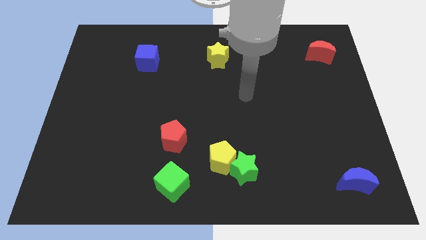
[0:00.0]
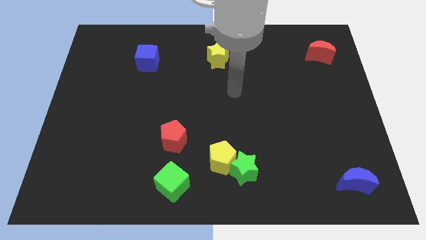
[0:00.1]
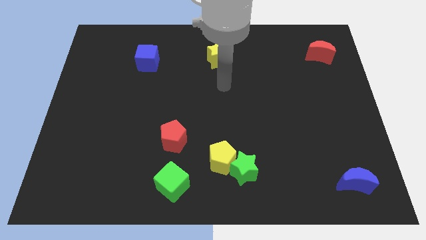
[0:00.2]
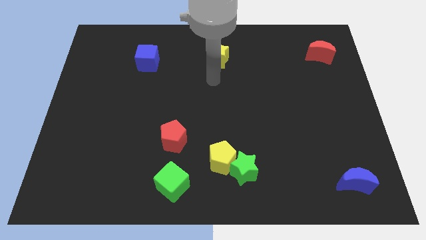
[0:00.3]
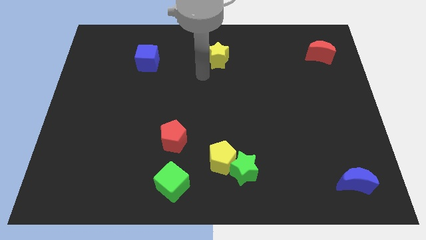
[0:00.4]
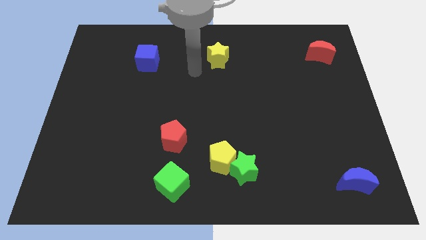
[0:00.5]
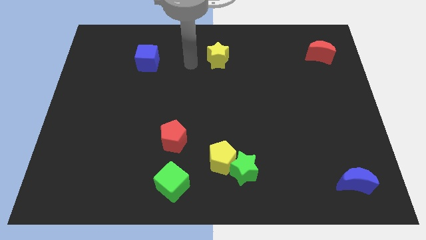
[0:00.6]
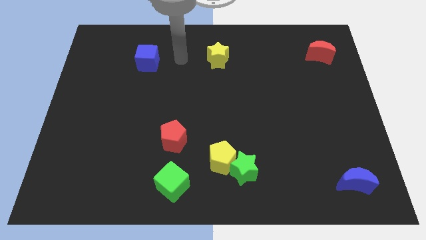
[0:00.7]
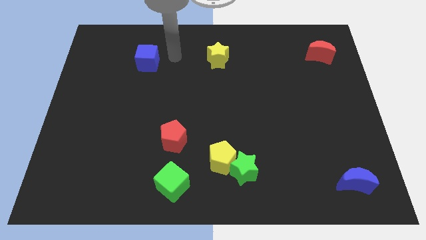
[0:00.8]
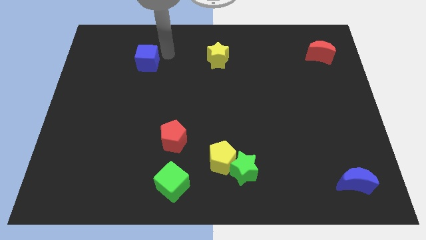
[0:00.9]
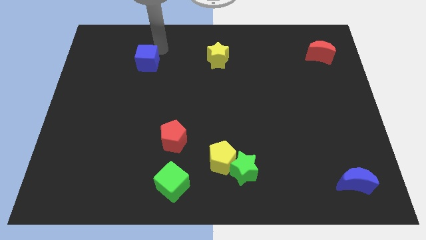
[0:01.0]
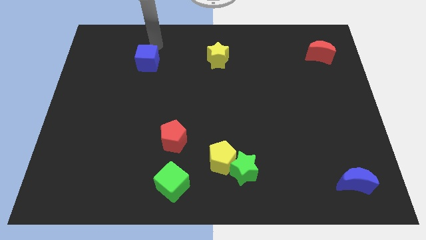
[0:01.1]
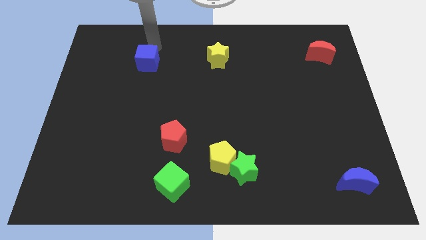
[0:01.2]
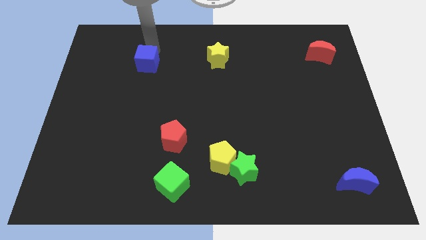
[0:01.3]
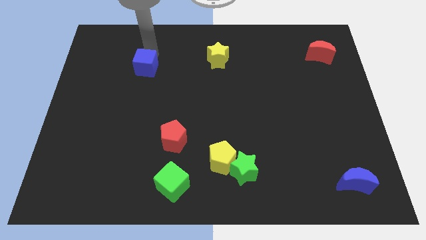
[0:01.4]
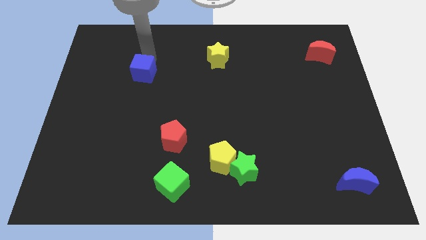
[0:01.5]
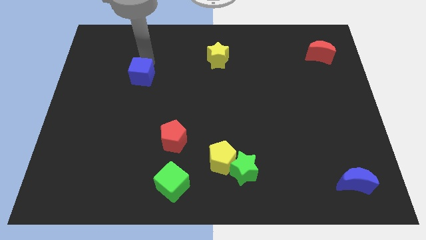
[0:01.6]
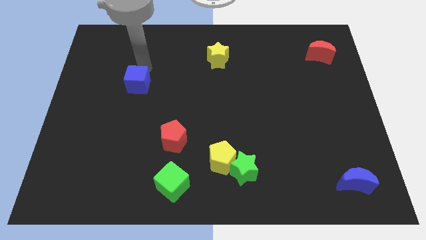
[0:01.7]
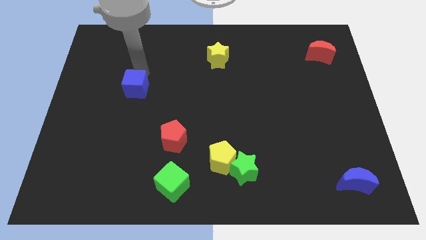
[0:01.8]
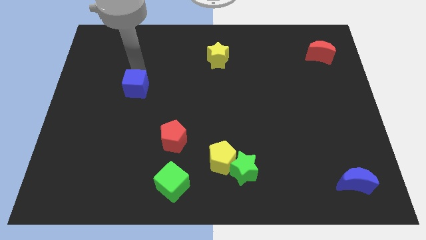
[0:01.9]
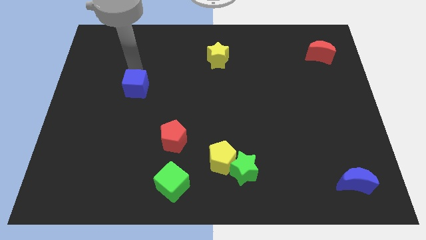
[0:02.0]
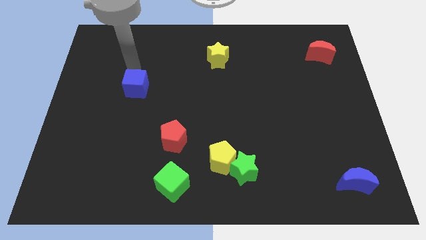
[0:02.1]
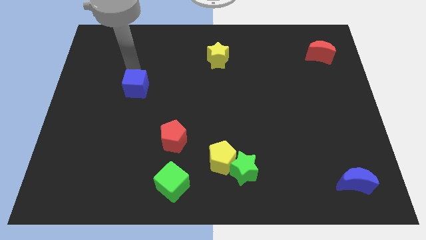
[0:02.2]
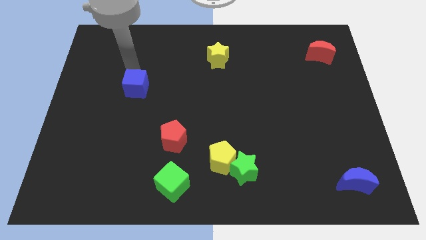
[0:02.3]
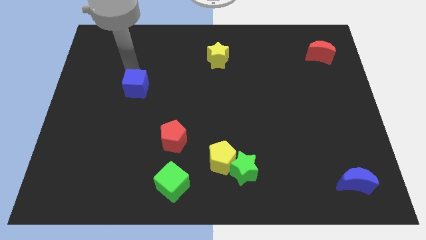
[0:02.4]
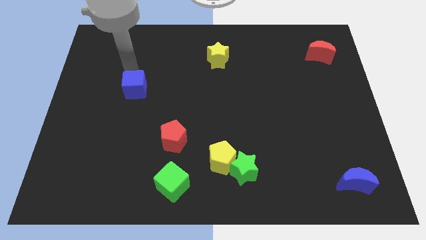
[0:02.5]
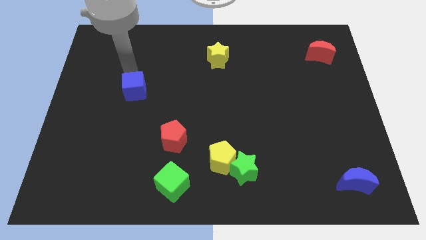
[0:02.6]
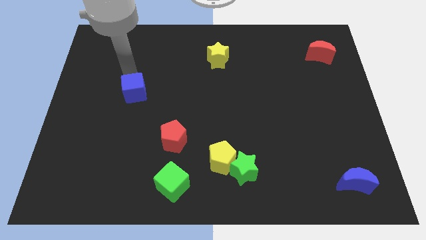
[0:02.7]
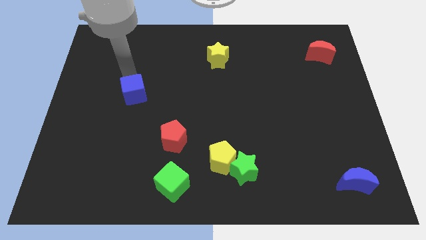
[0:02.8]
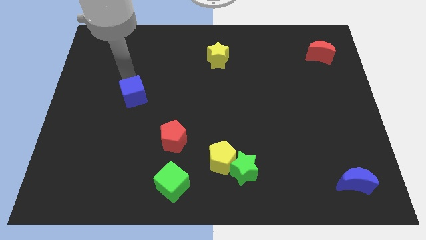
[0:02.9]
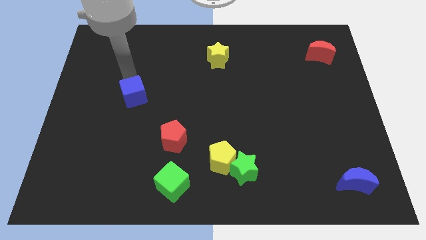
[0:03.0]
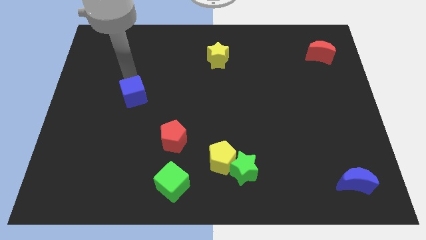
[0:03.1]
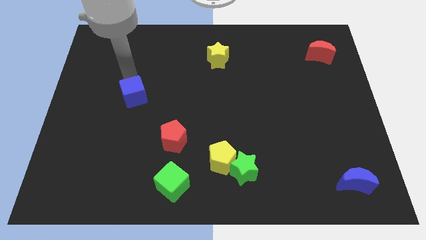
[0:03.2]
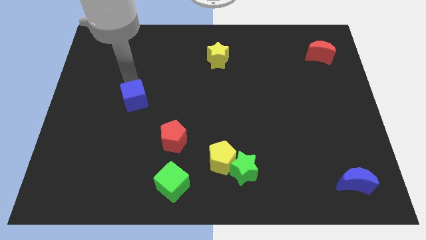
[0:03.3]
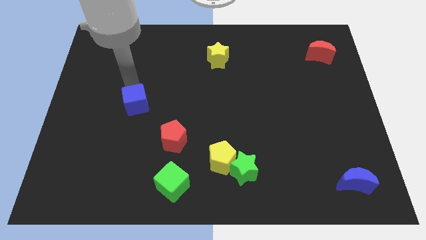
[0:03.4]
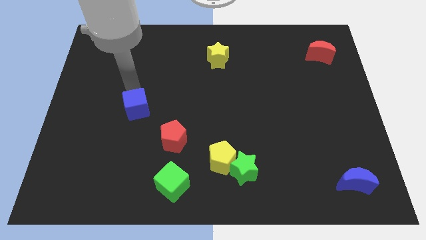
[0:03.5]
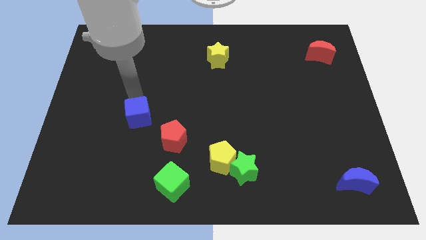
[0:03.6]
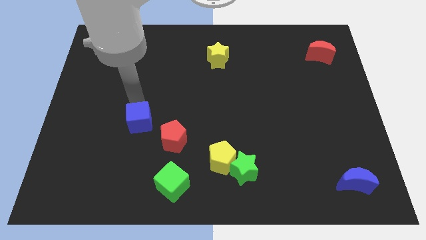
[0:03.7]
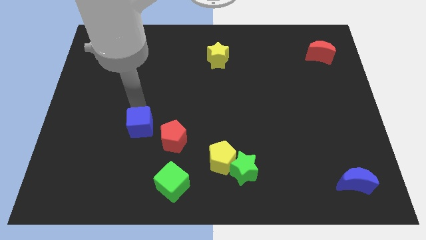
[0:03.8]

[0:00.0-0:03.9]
slide the blue cube downwards

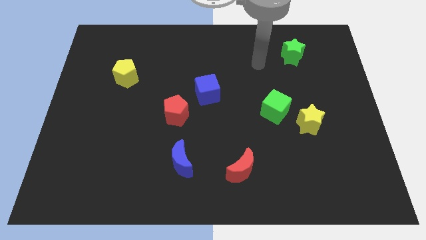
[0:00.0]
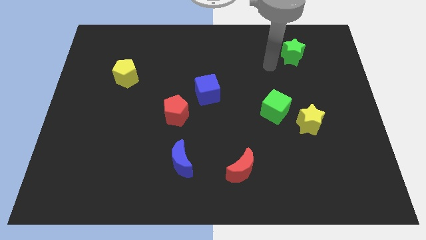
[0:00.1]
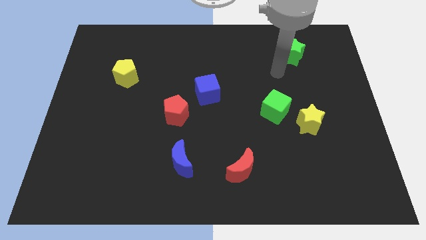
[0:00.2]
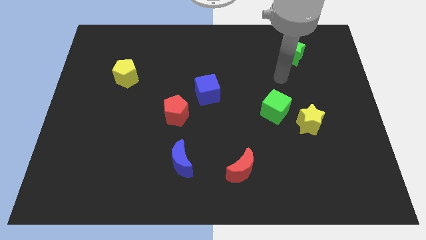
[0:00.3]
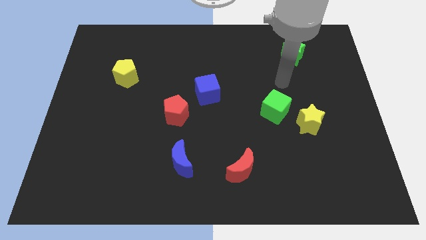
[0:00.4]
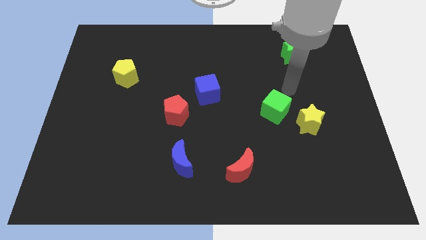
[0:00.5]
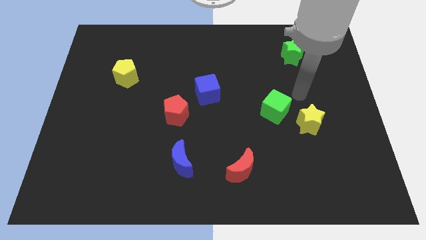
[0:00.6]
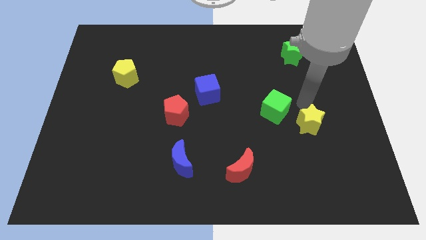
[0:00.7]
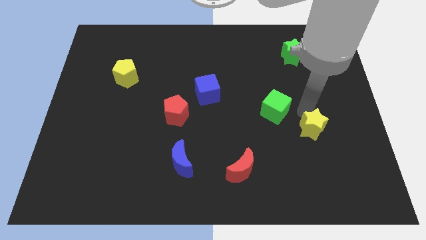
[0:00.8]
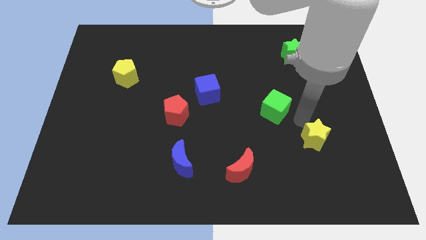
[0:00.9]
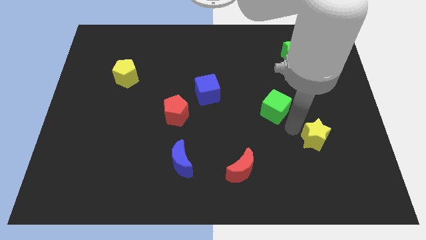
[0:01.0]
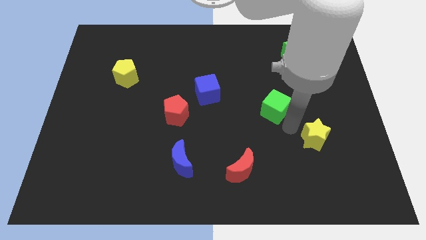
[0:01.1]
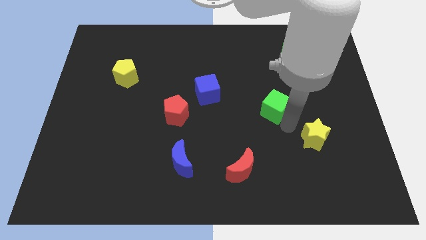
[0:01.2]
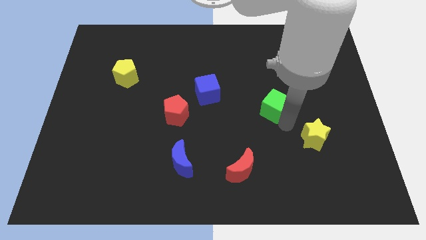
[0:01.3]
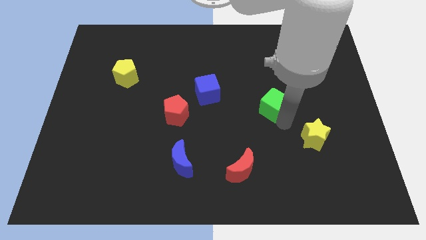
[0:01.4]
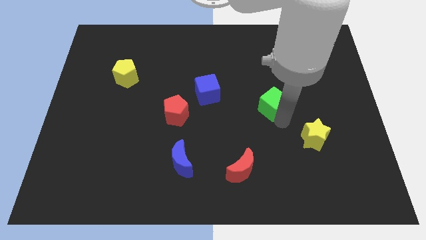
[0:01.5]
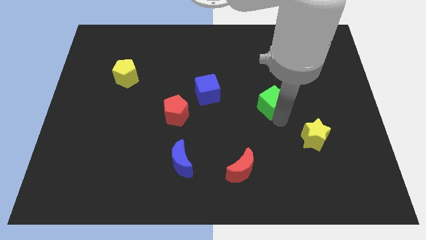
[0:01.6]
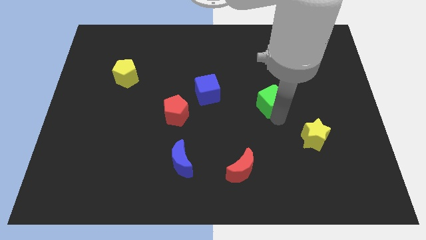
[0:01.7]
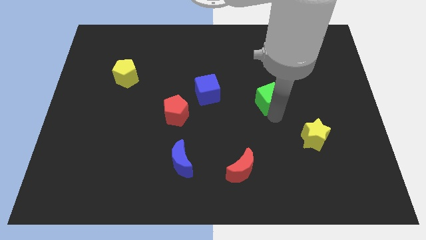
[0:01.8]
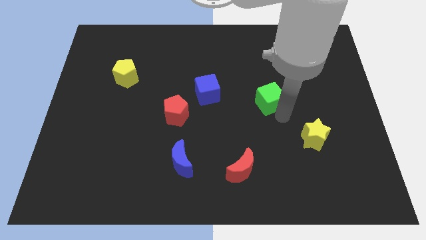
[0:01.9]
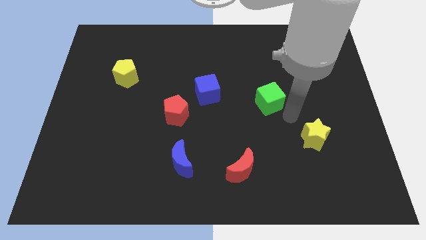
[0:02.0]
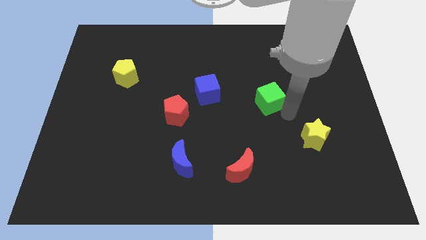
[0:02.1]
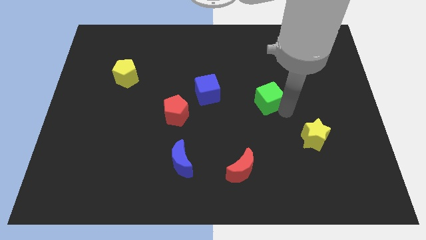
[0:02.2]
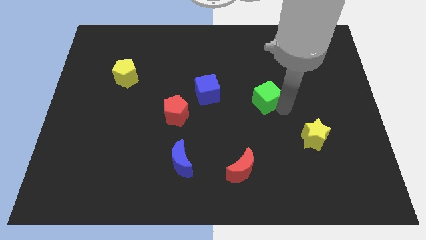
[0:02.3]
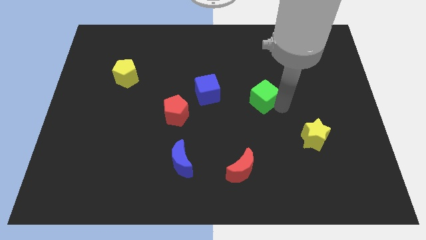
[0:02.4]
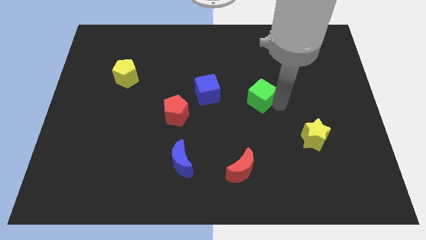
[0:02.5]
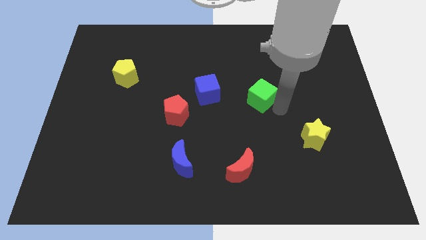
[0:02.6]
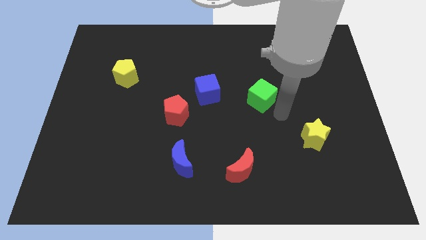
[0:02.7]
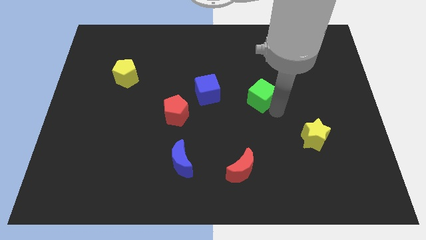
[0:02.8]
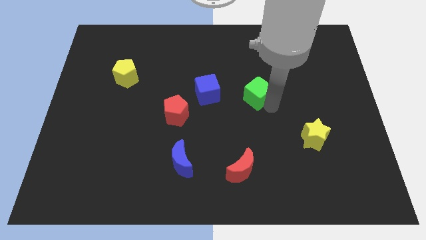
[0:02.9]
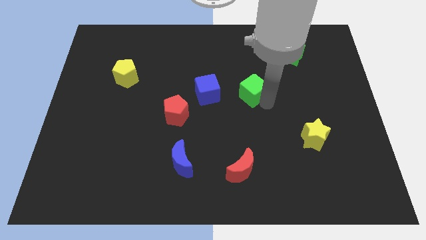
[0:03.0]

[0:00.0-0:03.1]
push the green cube slightly diagonally upwards and left

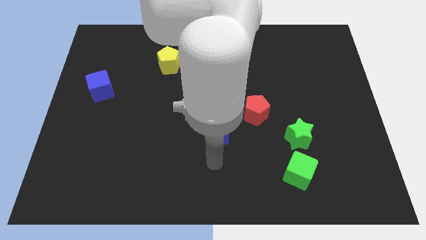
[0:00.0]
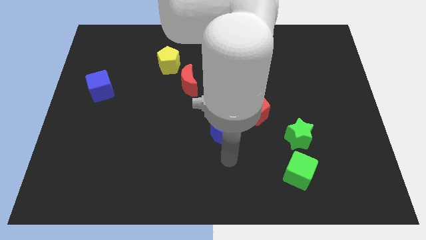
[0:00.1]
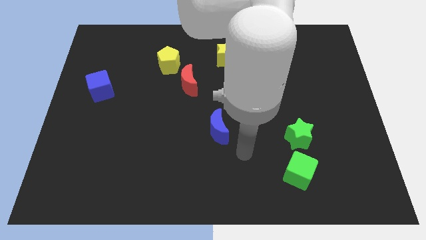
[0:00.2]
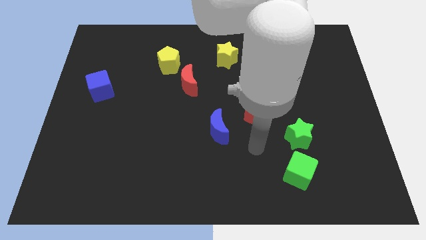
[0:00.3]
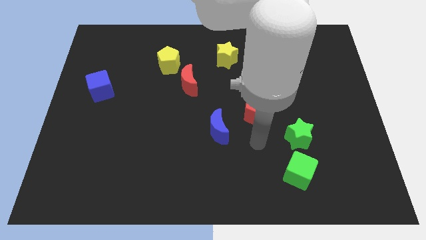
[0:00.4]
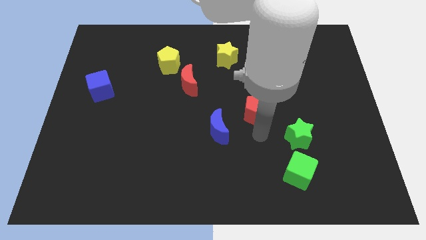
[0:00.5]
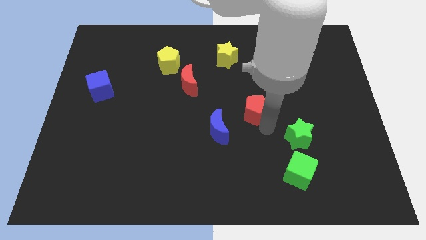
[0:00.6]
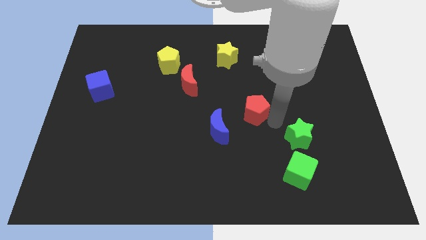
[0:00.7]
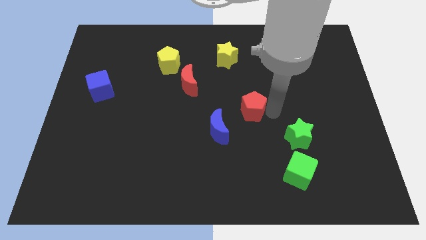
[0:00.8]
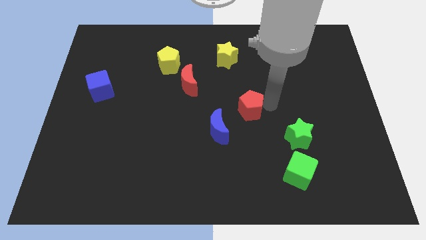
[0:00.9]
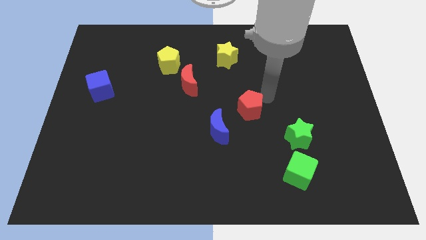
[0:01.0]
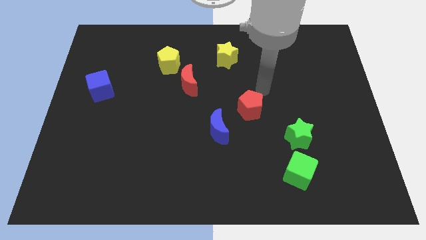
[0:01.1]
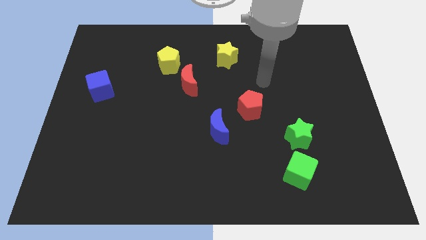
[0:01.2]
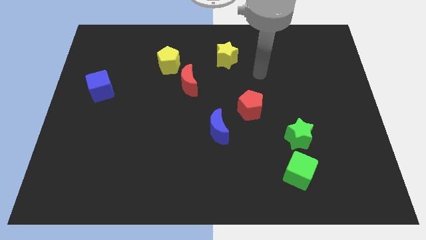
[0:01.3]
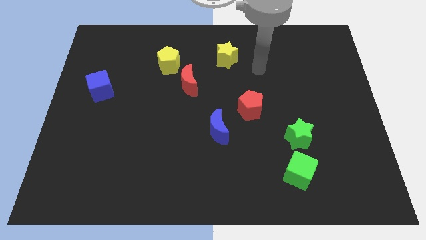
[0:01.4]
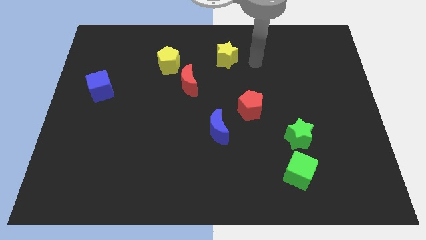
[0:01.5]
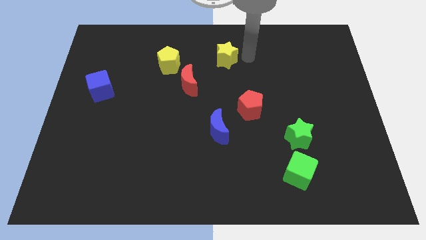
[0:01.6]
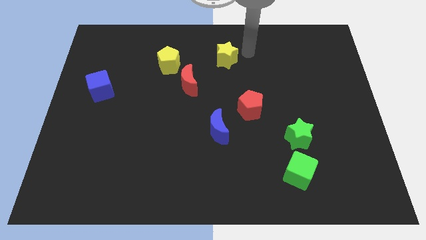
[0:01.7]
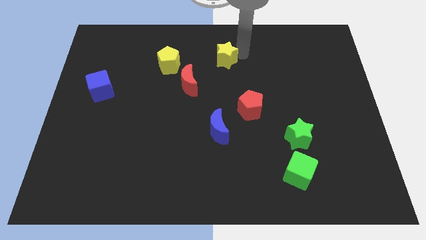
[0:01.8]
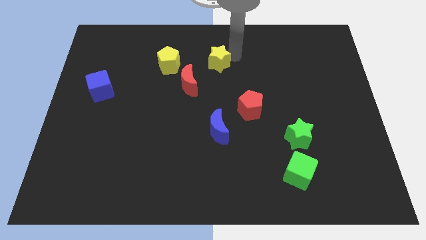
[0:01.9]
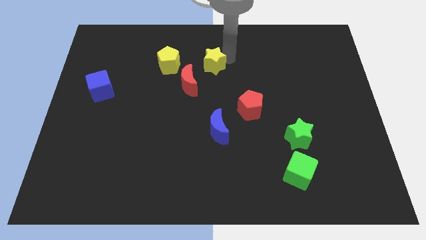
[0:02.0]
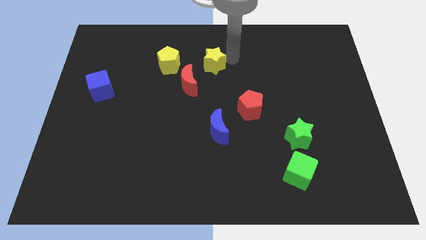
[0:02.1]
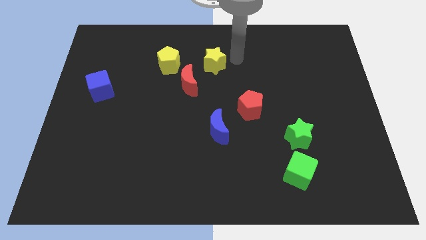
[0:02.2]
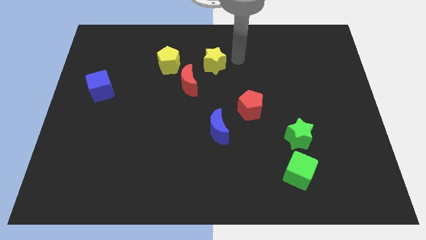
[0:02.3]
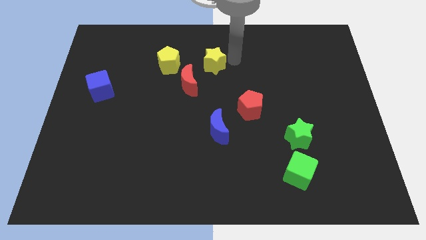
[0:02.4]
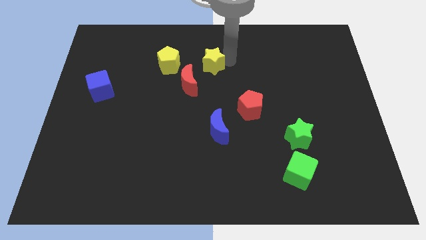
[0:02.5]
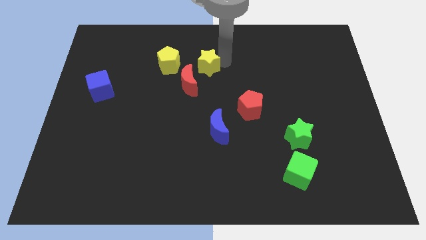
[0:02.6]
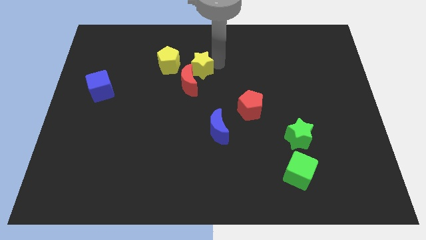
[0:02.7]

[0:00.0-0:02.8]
slightly slide the yellow star downwards and then to the left
